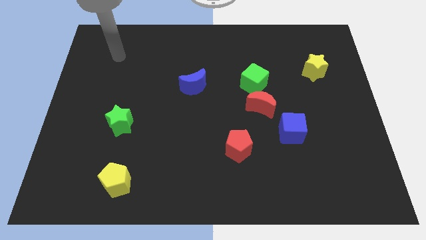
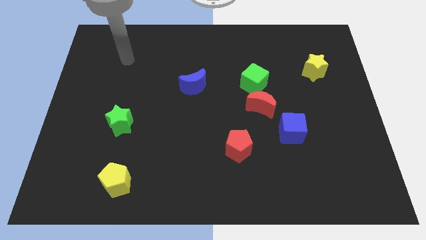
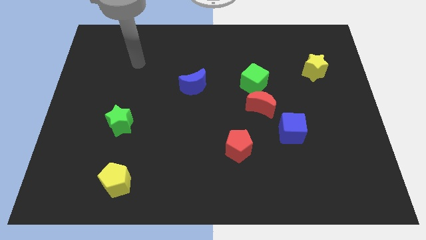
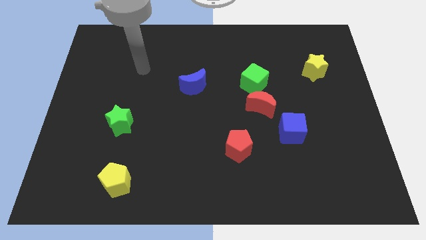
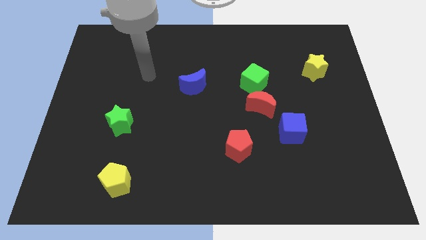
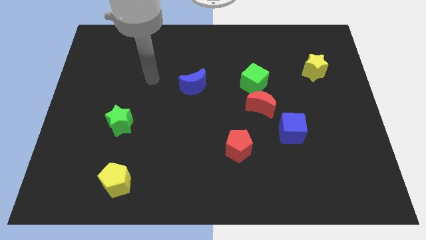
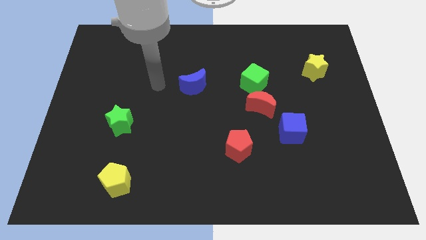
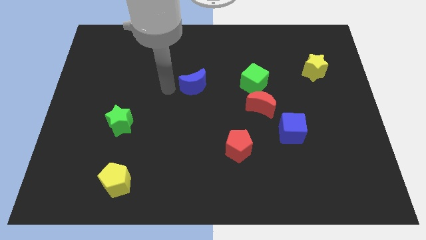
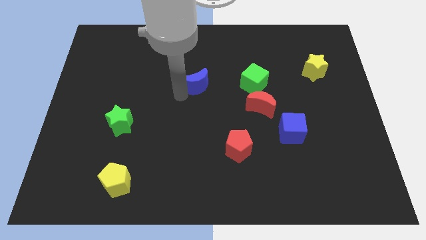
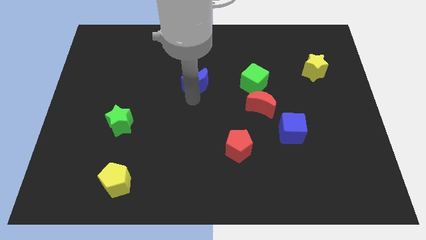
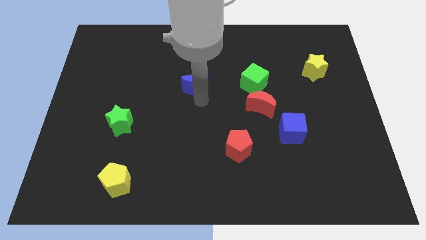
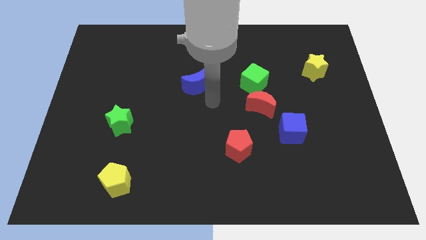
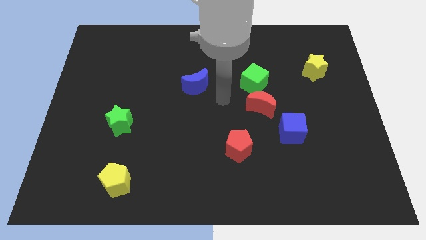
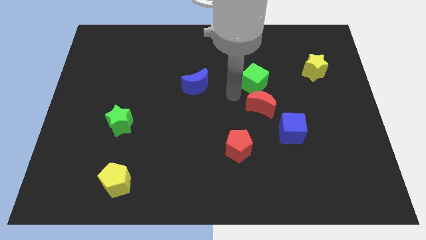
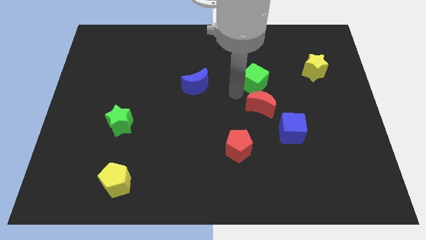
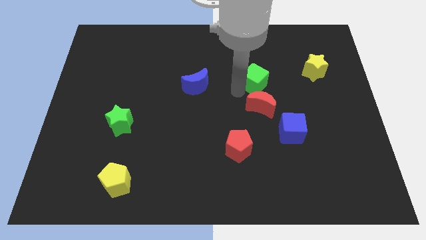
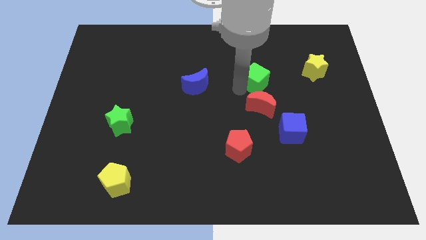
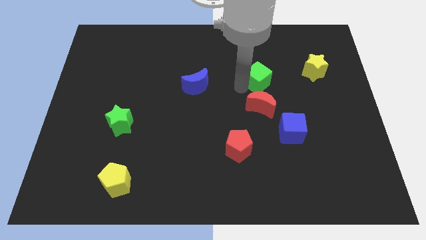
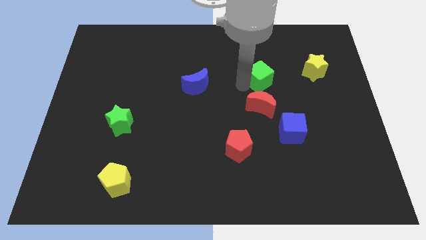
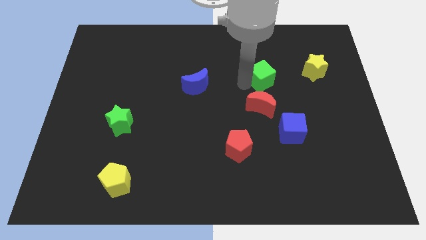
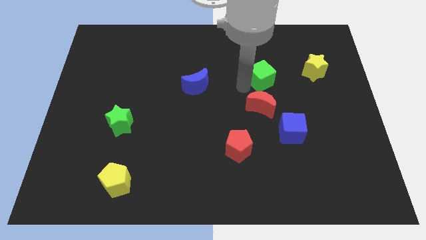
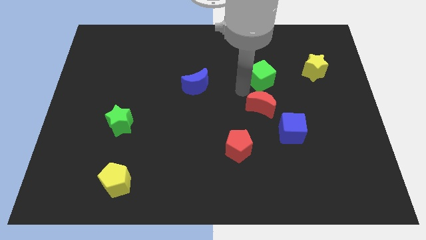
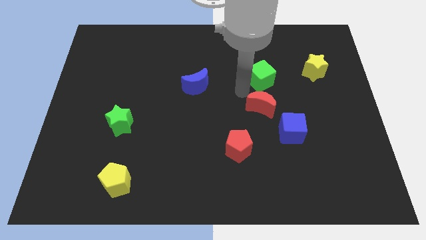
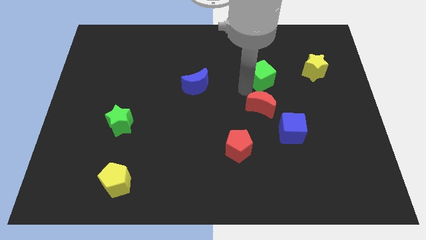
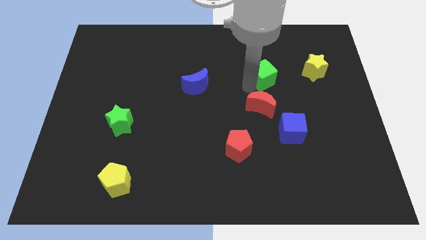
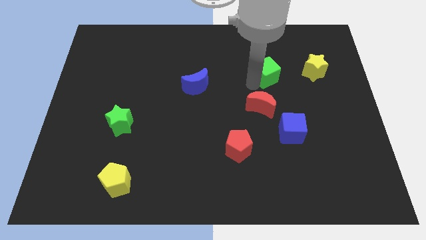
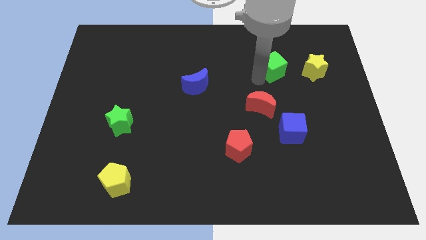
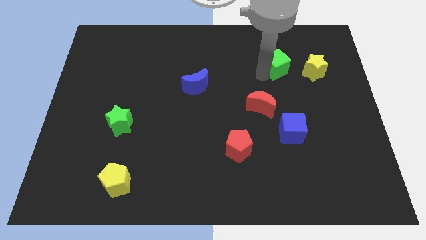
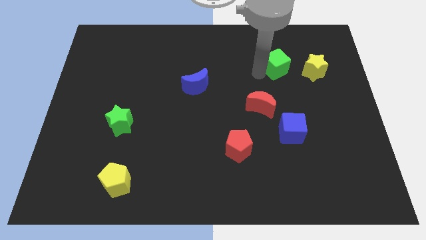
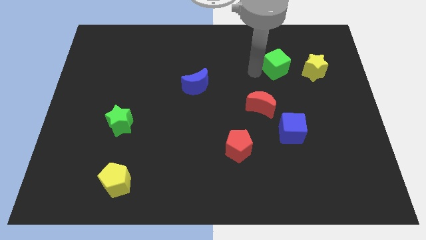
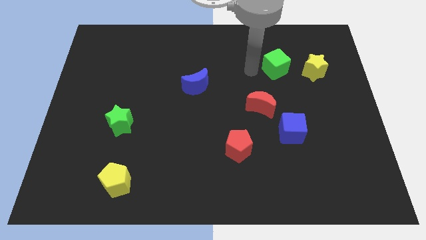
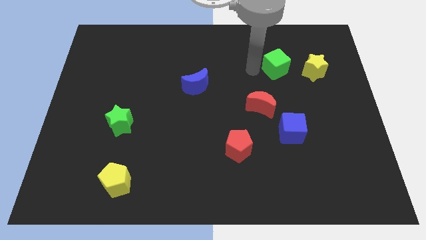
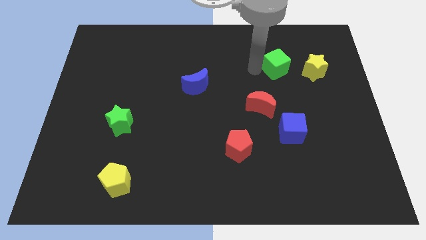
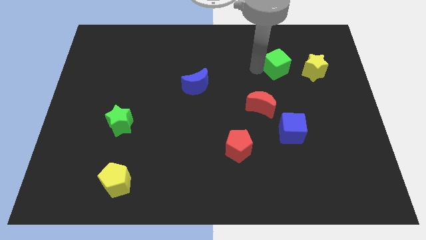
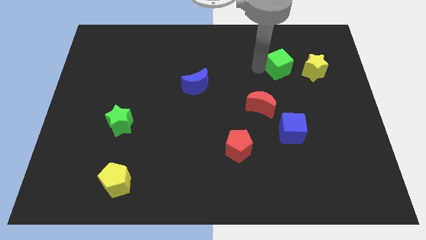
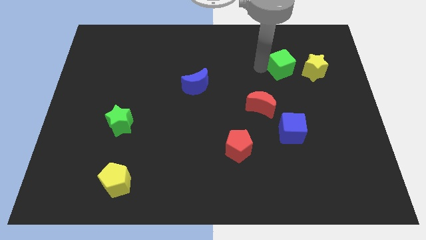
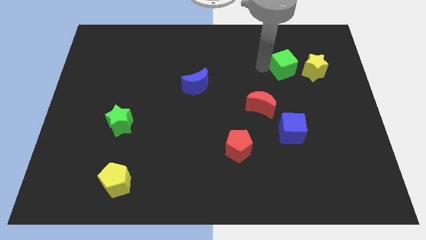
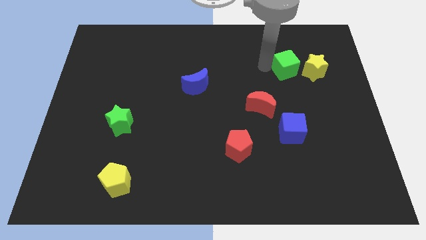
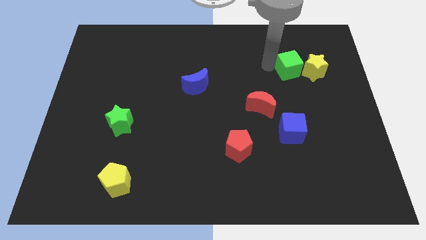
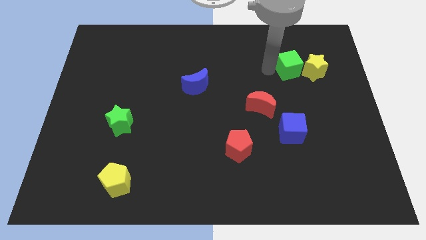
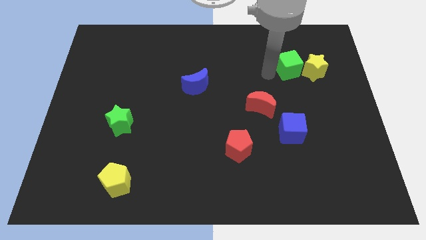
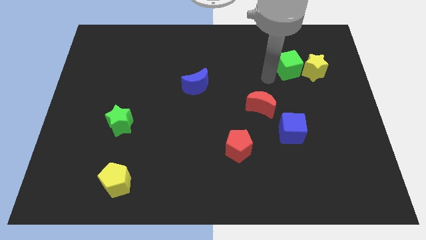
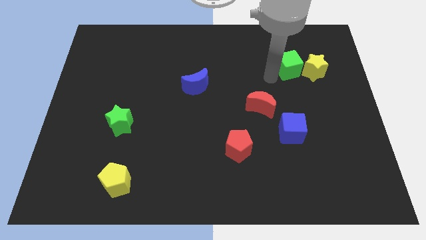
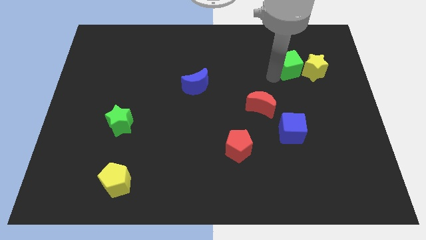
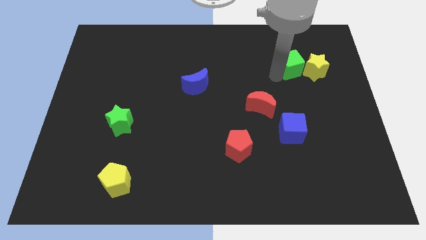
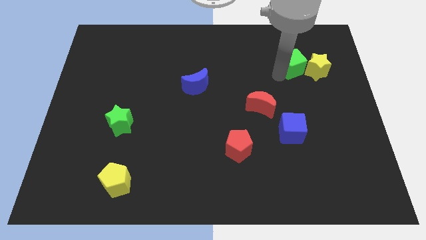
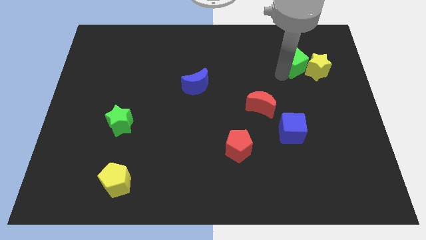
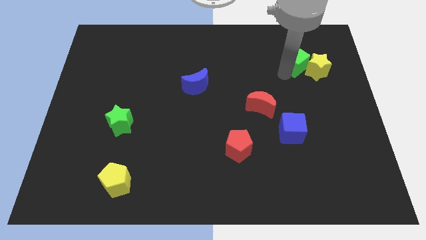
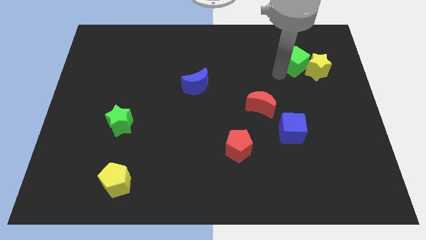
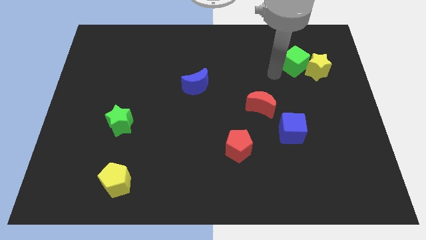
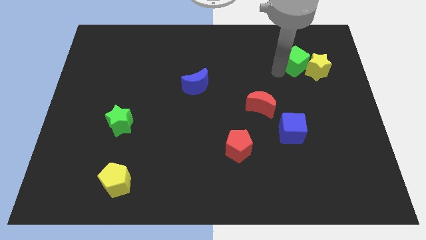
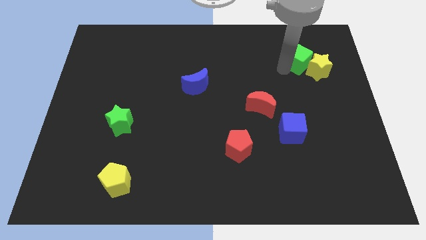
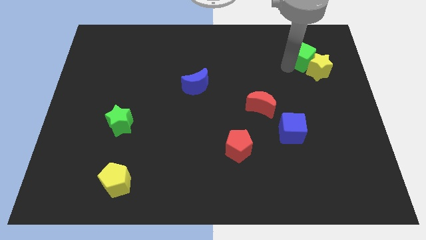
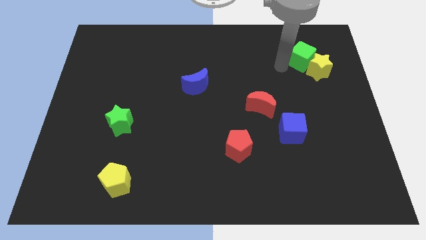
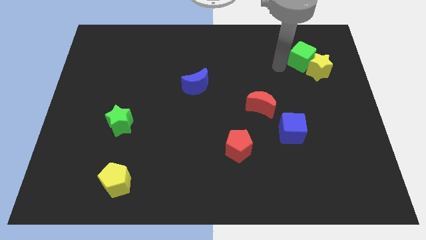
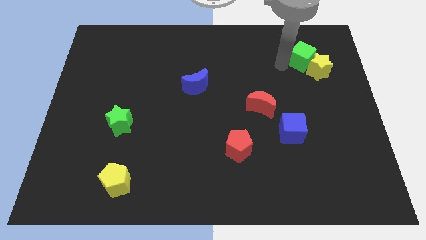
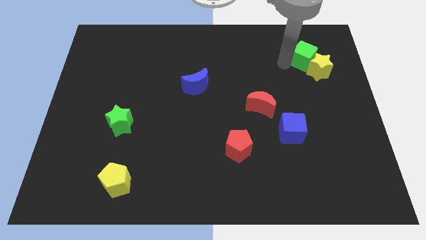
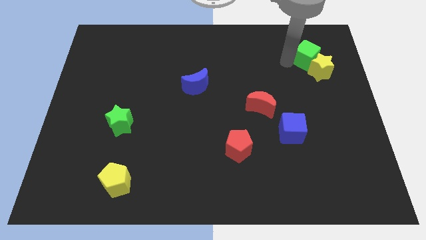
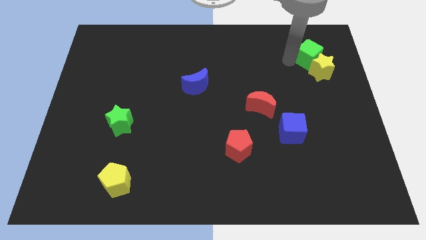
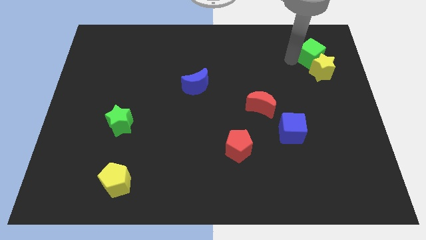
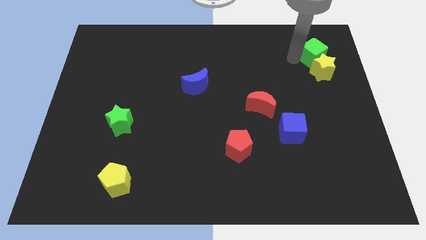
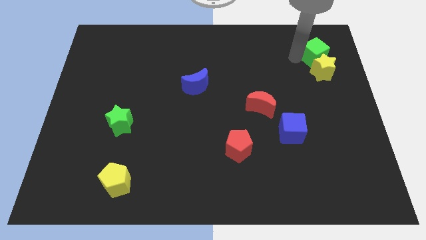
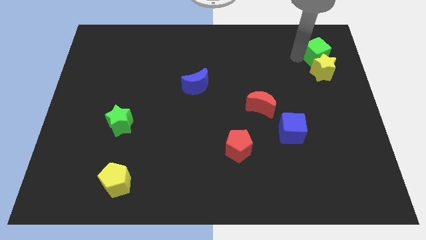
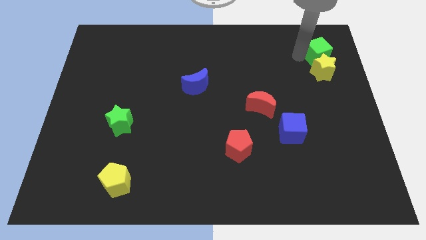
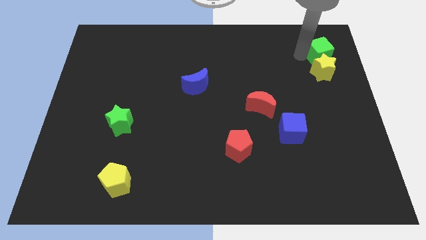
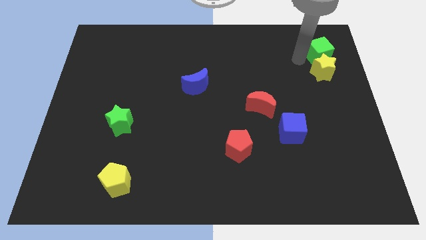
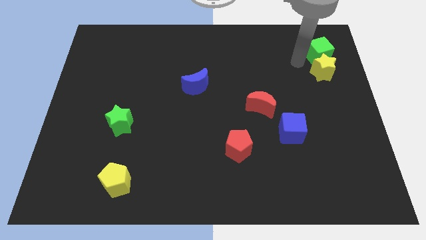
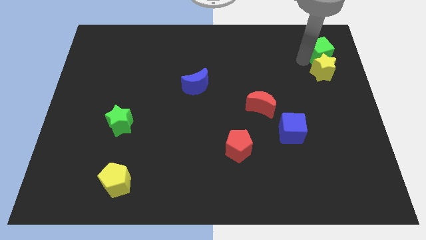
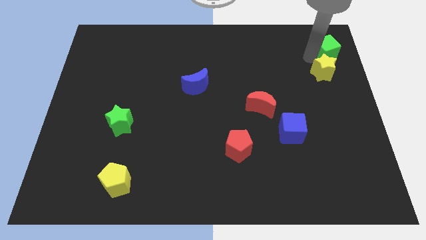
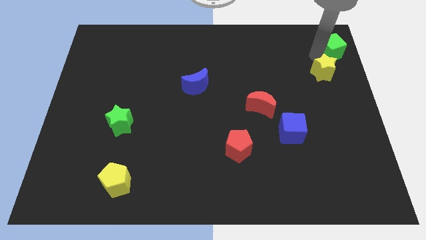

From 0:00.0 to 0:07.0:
slide the green cube to the top right
